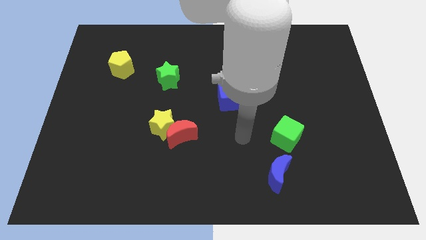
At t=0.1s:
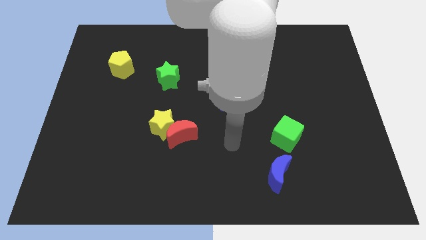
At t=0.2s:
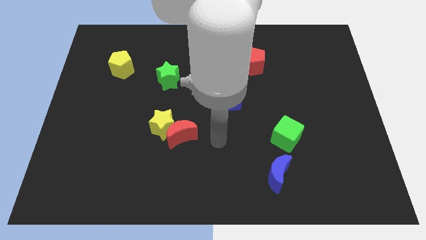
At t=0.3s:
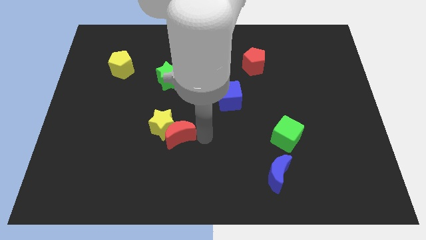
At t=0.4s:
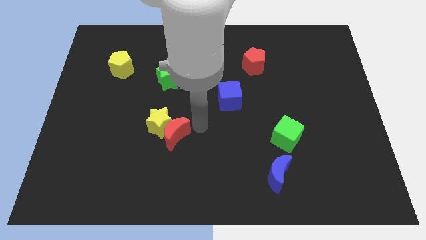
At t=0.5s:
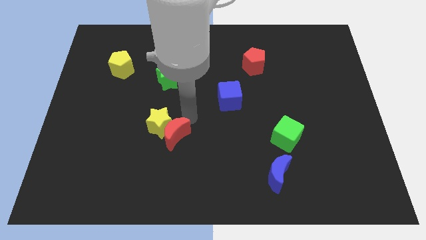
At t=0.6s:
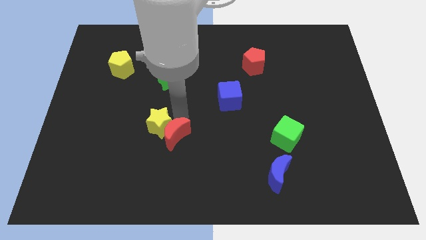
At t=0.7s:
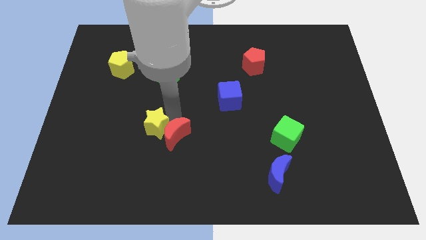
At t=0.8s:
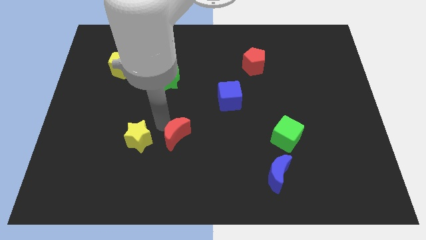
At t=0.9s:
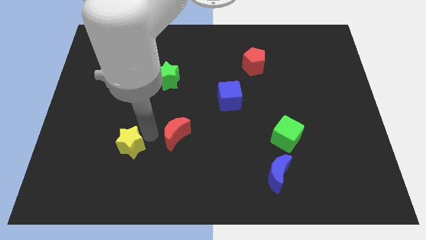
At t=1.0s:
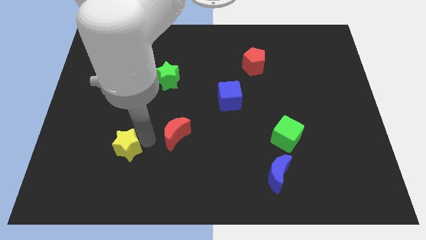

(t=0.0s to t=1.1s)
pull the red moon apart from the yellow star

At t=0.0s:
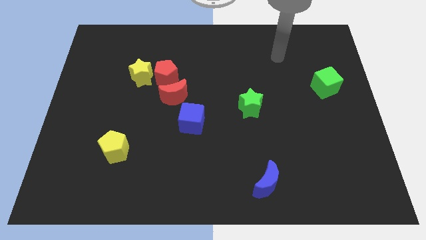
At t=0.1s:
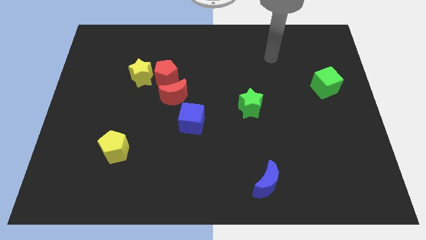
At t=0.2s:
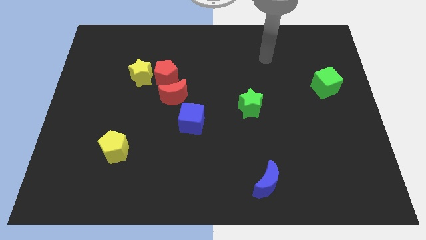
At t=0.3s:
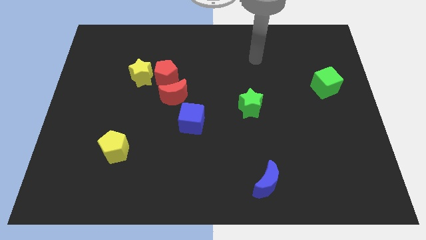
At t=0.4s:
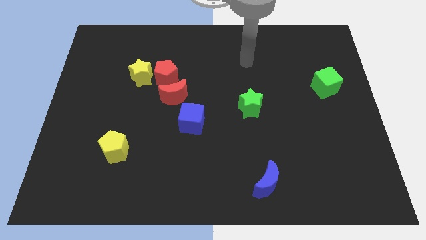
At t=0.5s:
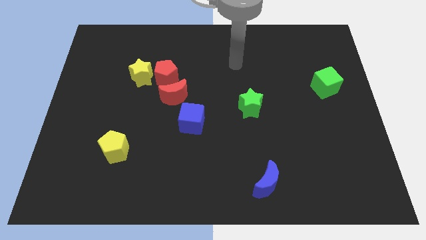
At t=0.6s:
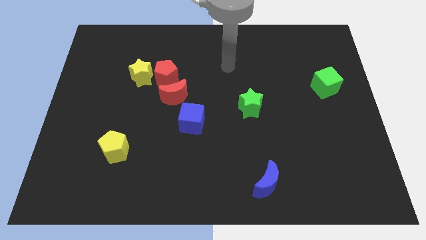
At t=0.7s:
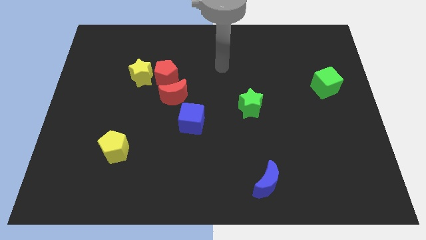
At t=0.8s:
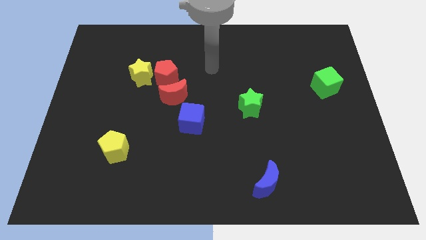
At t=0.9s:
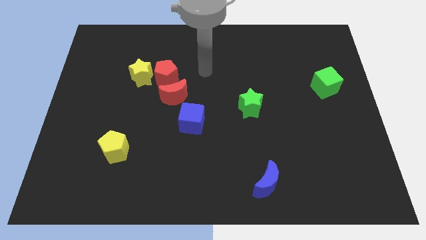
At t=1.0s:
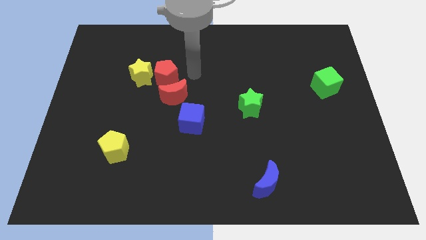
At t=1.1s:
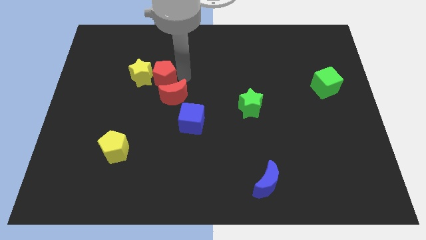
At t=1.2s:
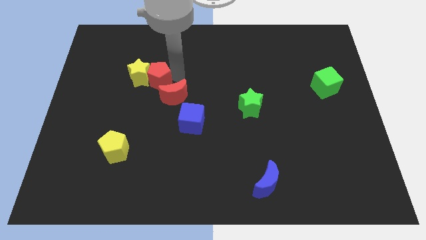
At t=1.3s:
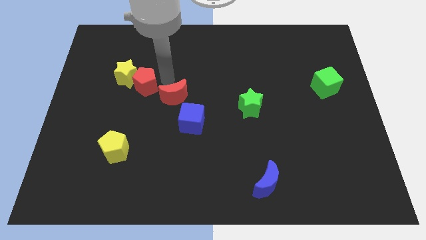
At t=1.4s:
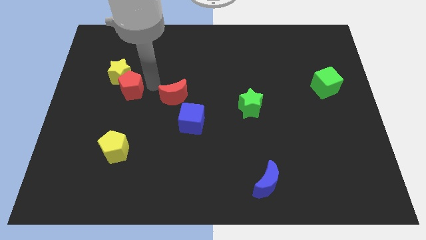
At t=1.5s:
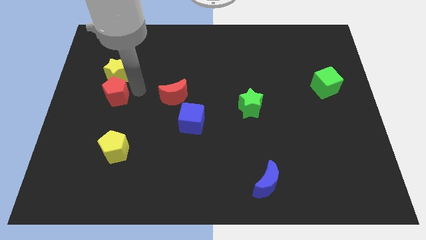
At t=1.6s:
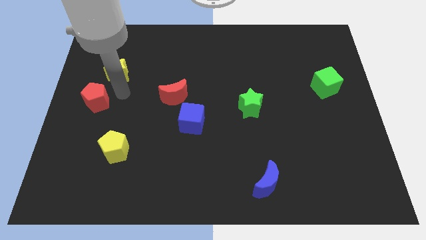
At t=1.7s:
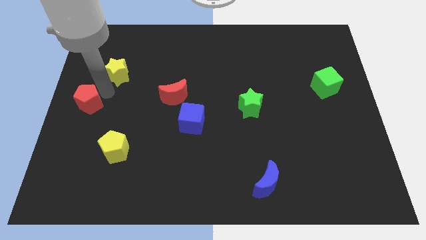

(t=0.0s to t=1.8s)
move the yellow star away from the red pentagon

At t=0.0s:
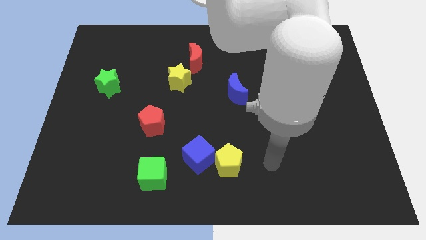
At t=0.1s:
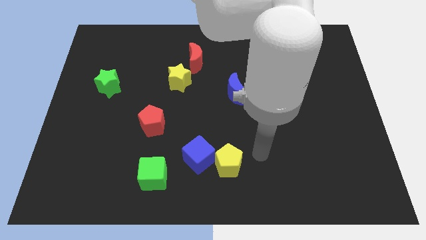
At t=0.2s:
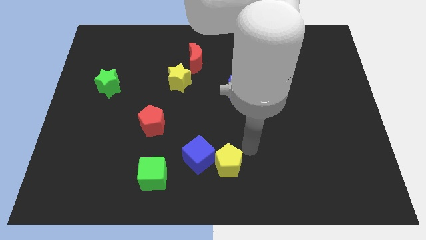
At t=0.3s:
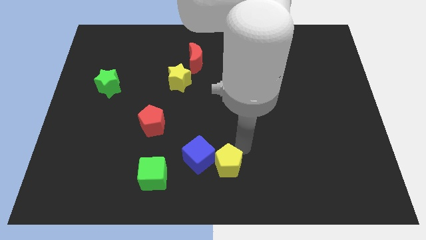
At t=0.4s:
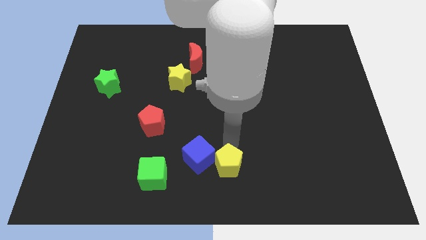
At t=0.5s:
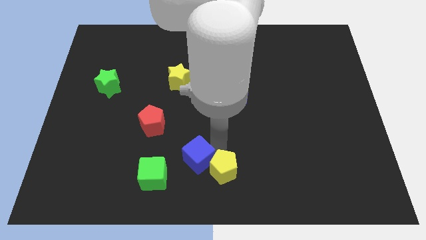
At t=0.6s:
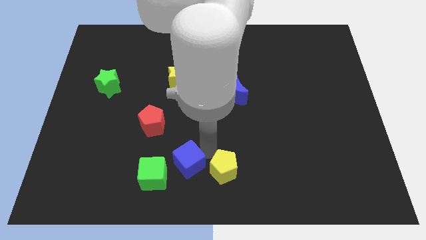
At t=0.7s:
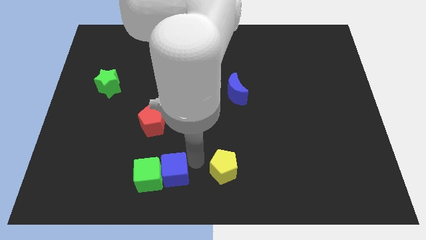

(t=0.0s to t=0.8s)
pull the yellow pentagon apart from the blue cube

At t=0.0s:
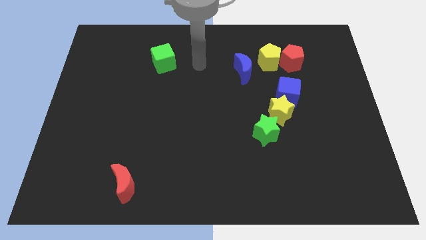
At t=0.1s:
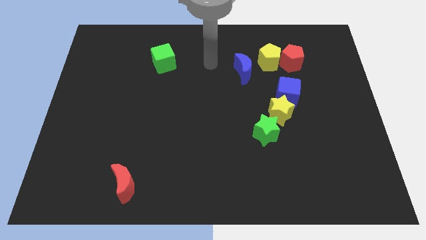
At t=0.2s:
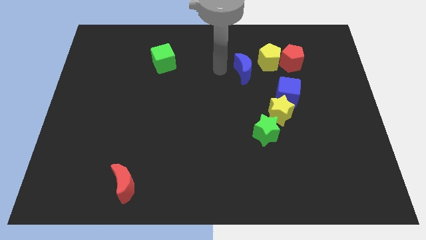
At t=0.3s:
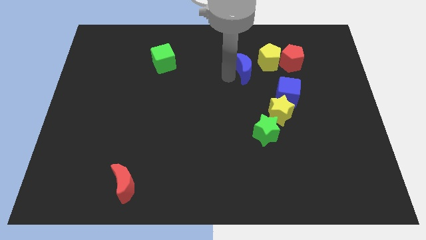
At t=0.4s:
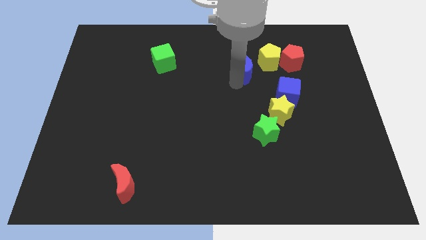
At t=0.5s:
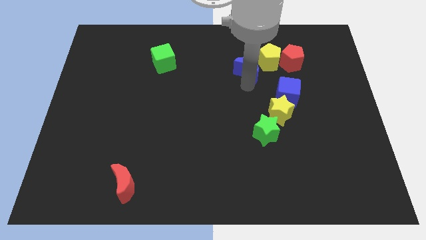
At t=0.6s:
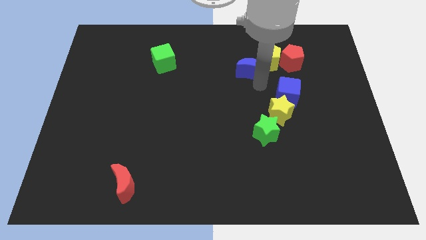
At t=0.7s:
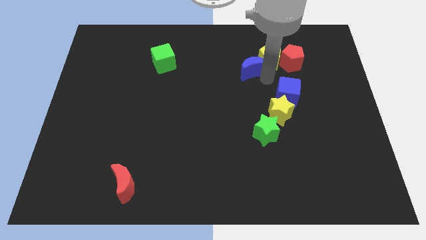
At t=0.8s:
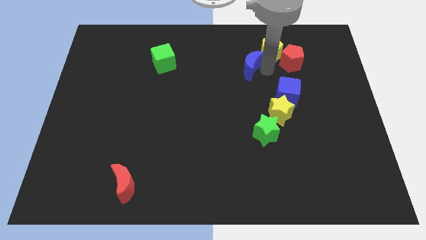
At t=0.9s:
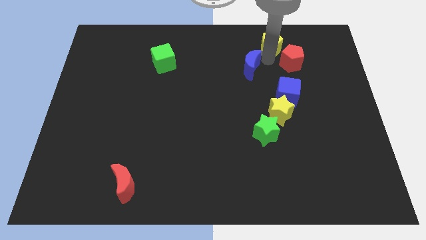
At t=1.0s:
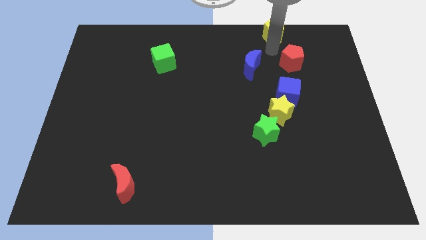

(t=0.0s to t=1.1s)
pull the red pentagon apart from the yellow pentagon

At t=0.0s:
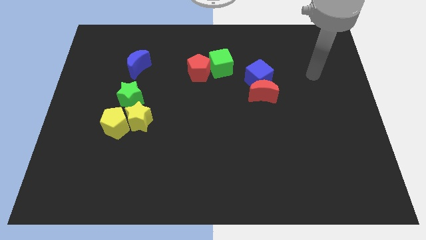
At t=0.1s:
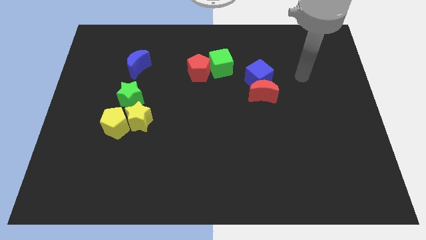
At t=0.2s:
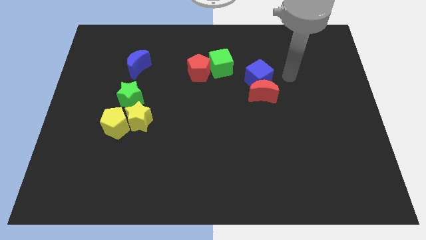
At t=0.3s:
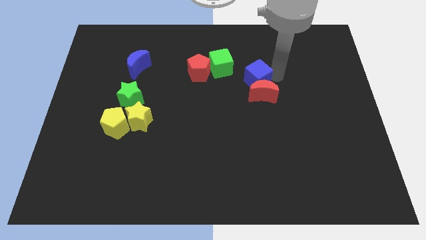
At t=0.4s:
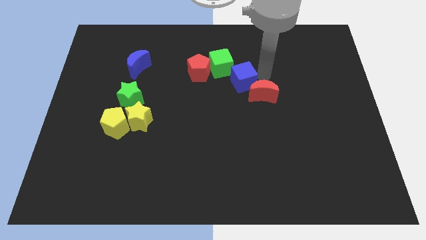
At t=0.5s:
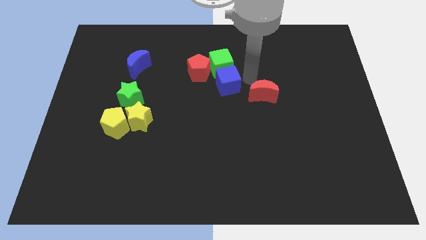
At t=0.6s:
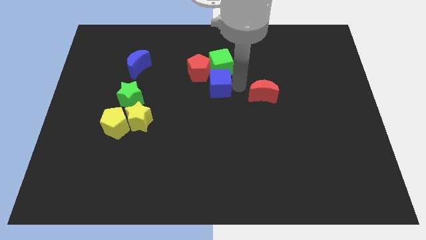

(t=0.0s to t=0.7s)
pull the red moon apart from the blue cube

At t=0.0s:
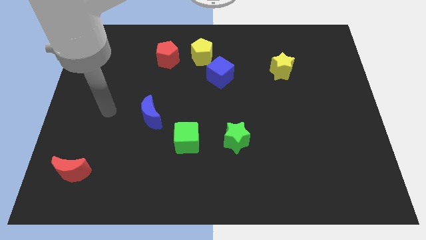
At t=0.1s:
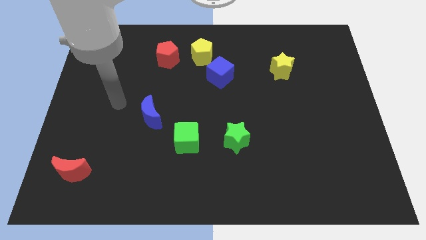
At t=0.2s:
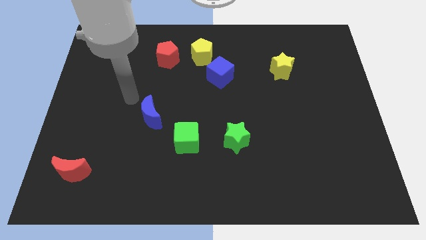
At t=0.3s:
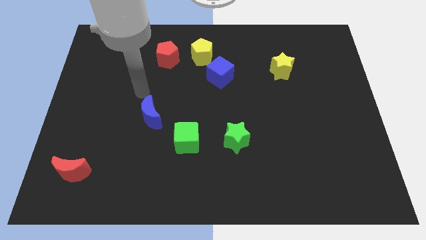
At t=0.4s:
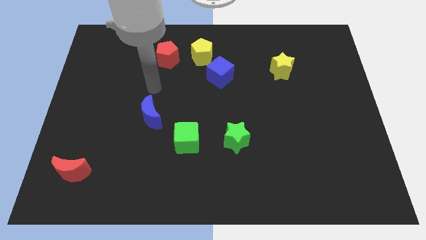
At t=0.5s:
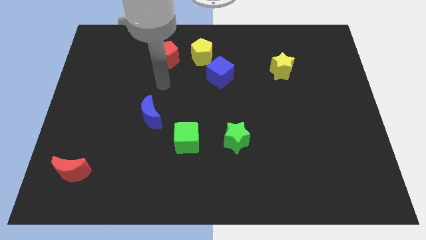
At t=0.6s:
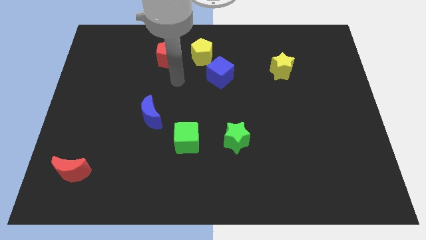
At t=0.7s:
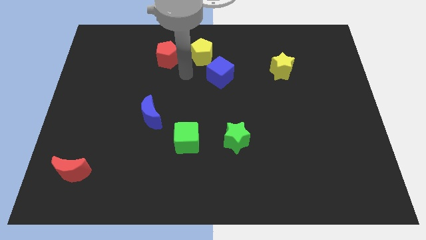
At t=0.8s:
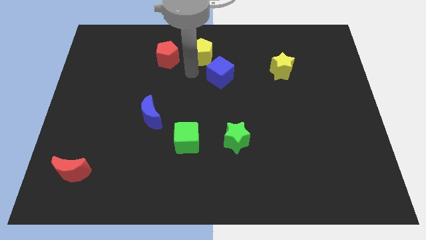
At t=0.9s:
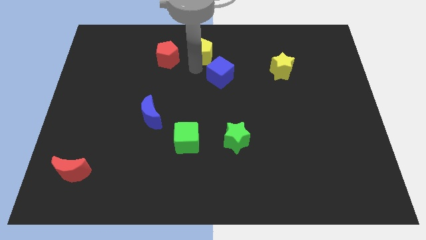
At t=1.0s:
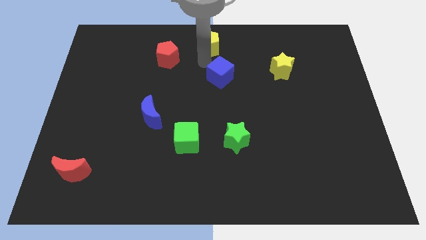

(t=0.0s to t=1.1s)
pull the blue cube apart from the yellow pentagon

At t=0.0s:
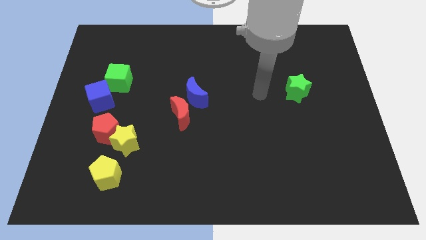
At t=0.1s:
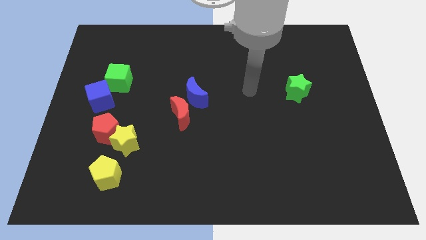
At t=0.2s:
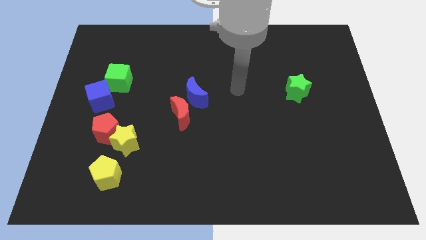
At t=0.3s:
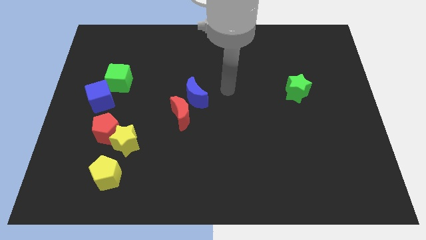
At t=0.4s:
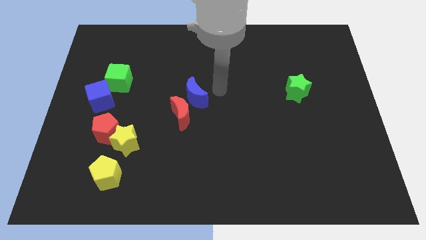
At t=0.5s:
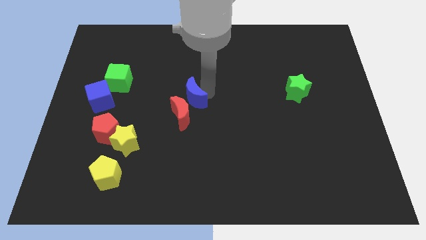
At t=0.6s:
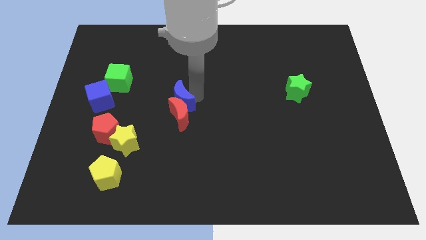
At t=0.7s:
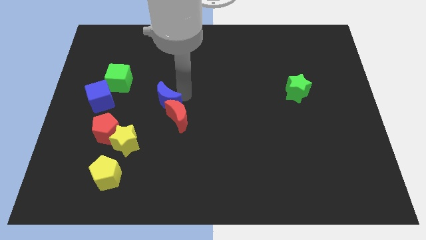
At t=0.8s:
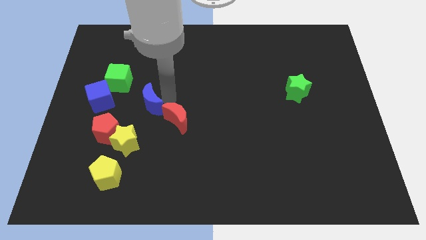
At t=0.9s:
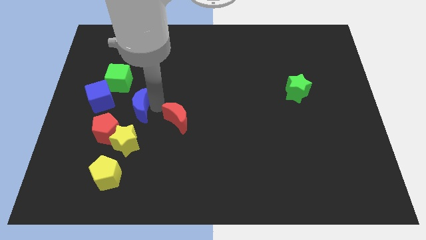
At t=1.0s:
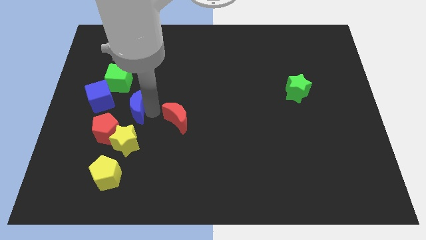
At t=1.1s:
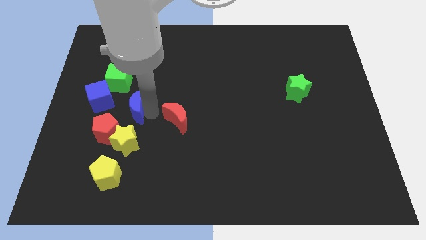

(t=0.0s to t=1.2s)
pull the red moon apart from the blue moon

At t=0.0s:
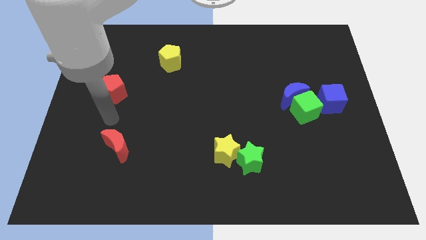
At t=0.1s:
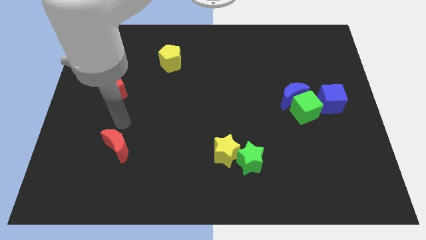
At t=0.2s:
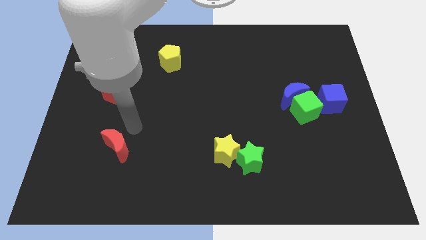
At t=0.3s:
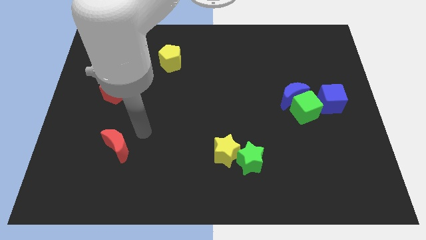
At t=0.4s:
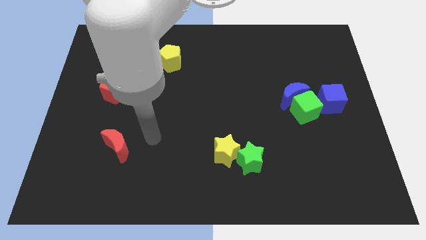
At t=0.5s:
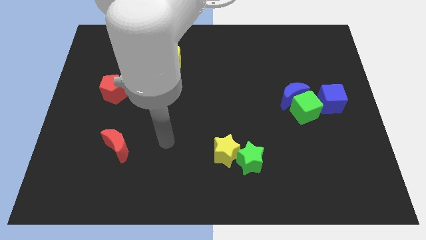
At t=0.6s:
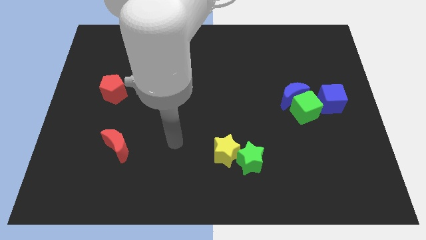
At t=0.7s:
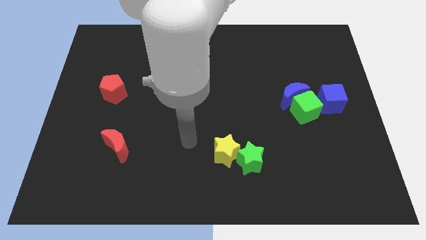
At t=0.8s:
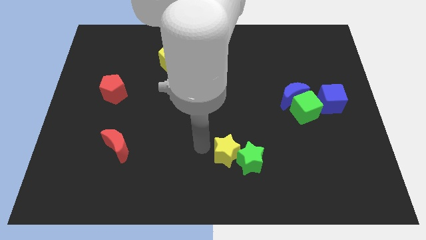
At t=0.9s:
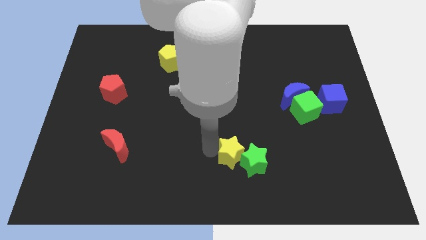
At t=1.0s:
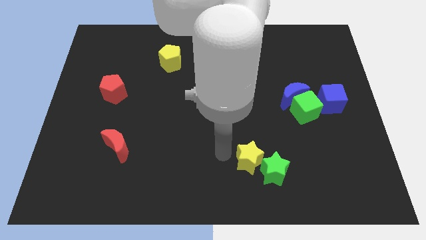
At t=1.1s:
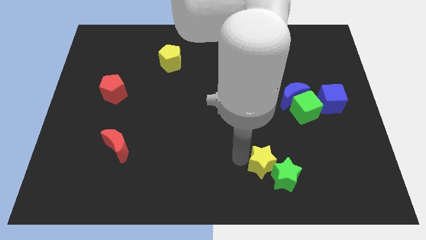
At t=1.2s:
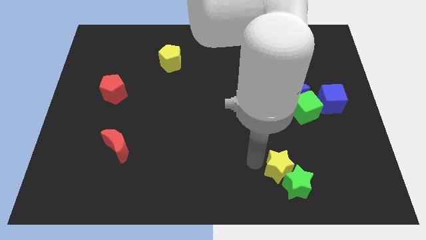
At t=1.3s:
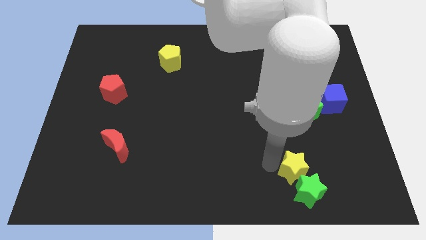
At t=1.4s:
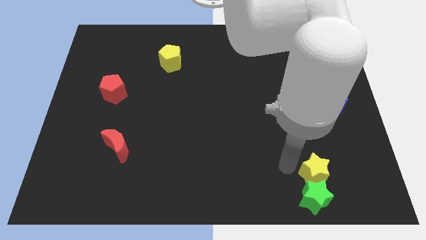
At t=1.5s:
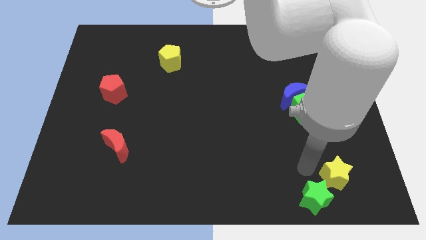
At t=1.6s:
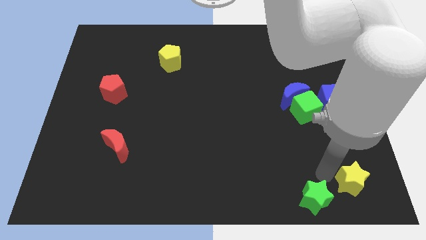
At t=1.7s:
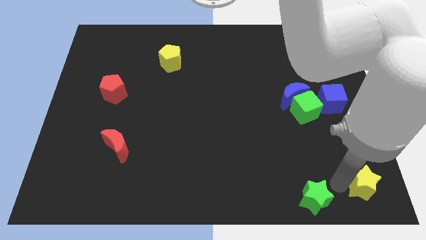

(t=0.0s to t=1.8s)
move the green star away from the yellow star
